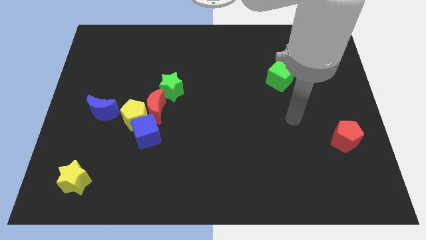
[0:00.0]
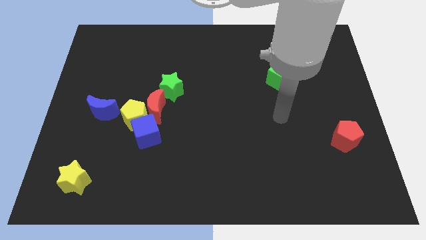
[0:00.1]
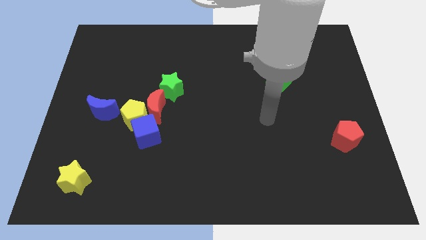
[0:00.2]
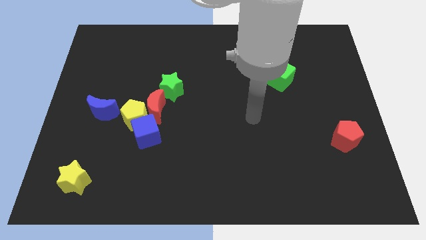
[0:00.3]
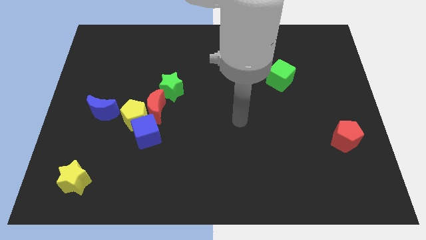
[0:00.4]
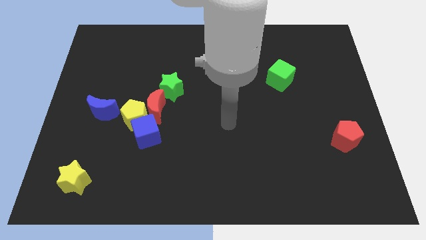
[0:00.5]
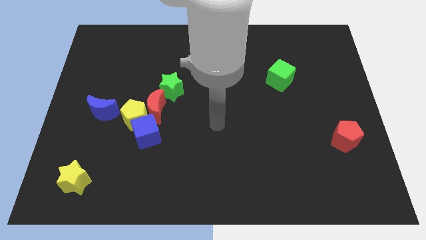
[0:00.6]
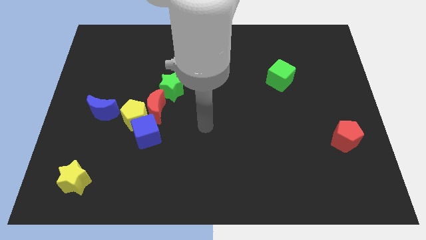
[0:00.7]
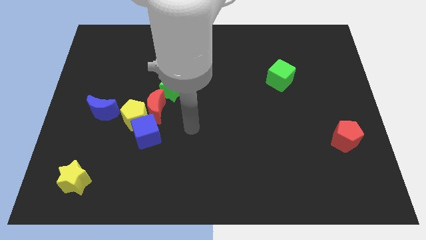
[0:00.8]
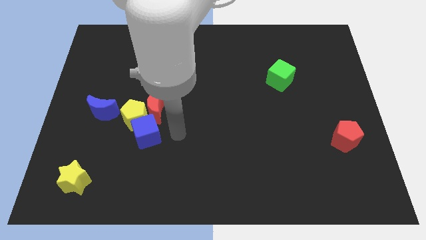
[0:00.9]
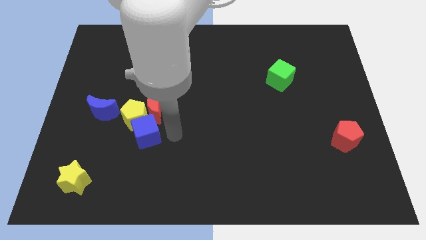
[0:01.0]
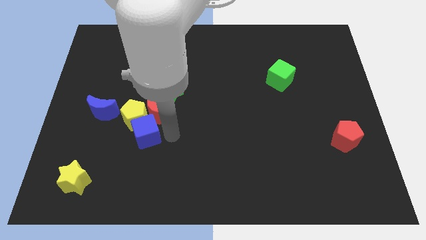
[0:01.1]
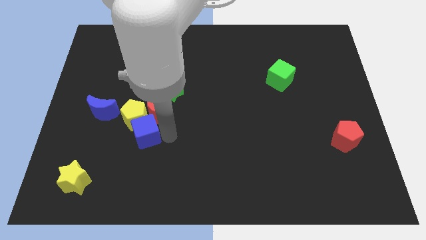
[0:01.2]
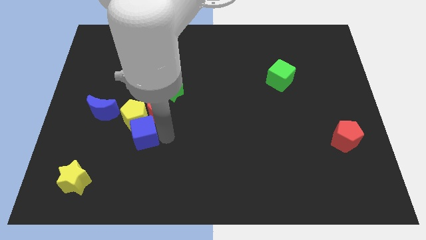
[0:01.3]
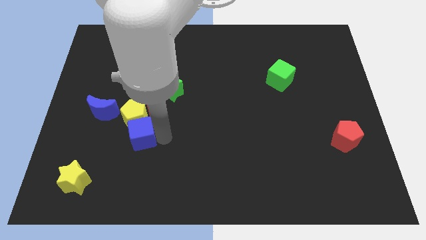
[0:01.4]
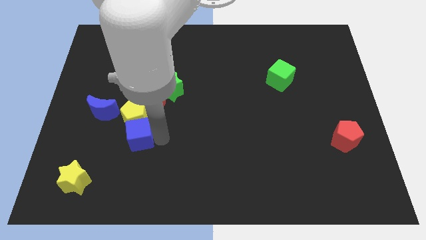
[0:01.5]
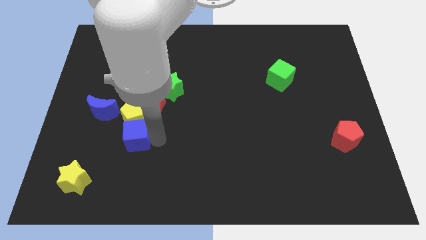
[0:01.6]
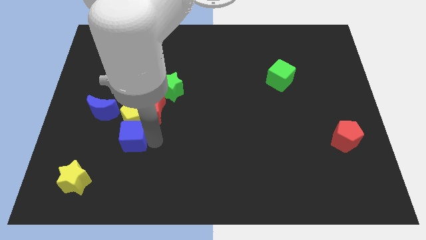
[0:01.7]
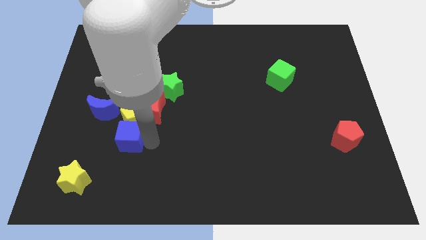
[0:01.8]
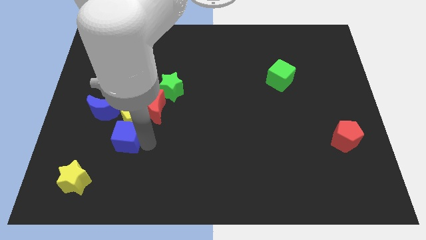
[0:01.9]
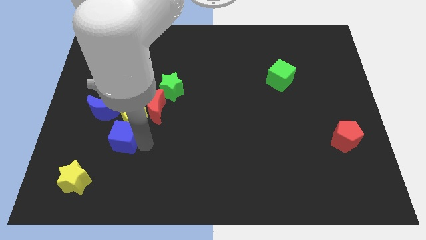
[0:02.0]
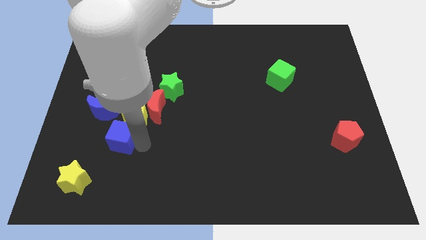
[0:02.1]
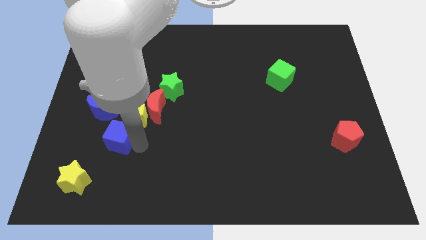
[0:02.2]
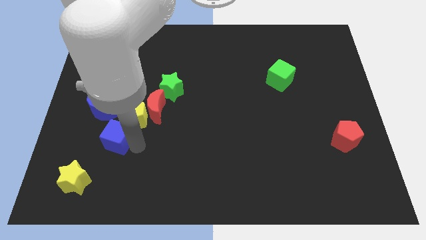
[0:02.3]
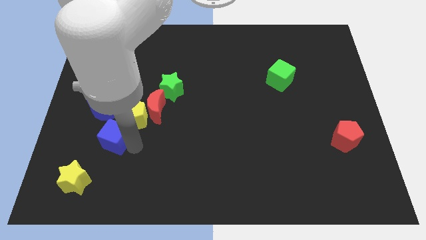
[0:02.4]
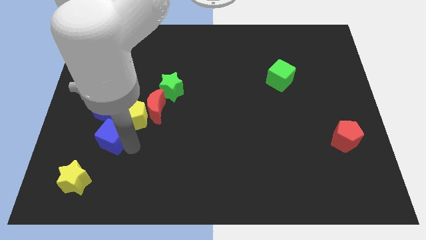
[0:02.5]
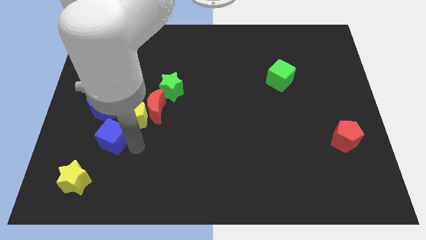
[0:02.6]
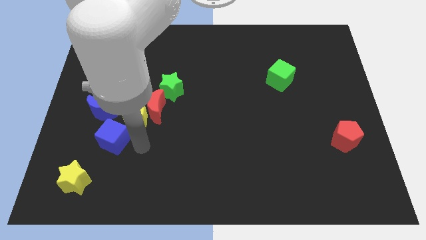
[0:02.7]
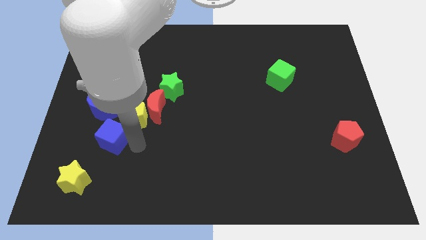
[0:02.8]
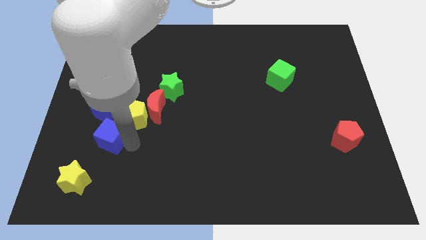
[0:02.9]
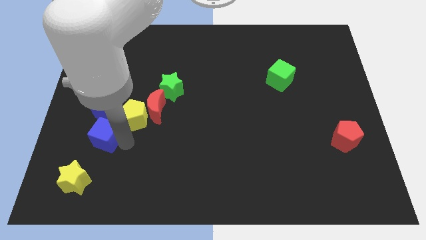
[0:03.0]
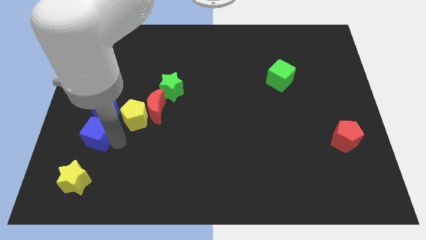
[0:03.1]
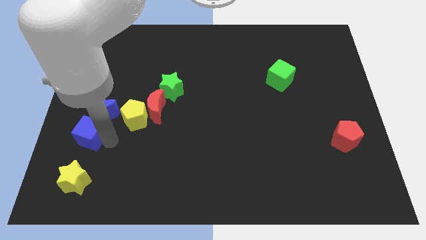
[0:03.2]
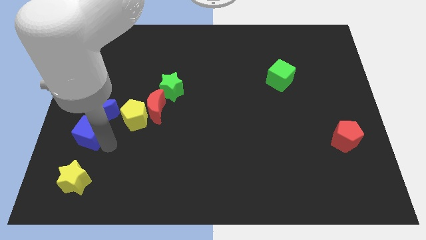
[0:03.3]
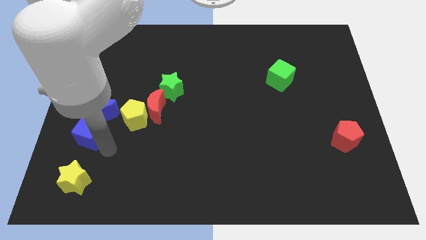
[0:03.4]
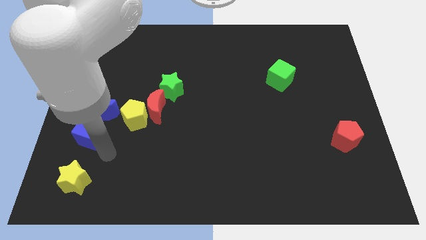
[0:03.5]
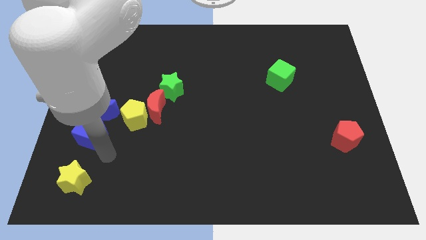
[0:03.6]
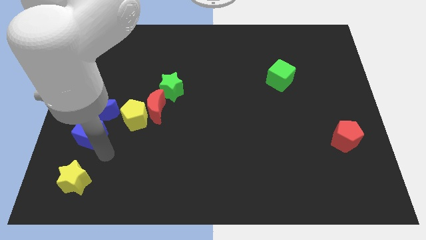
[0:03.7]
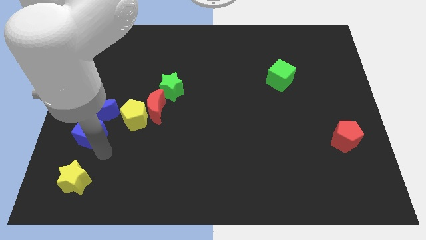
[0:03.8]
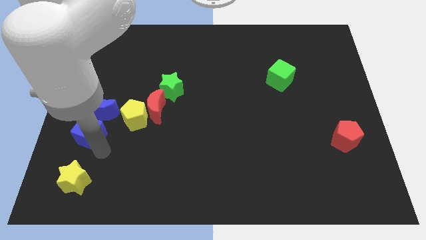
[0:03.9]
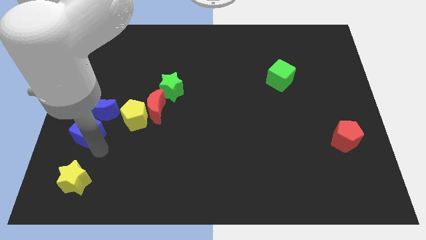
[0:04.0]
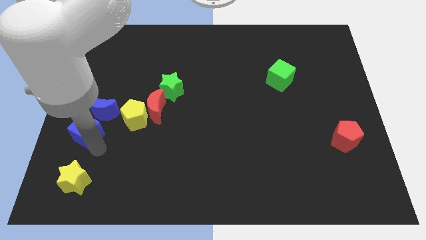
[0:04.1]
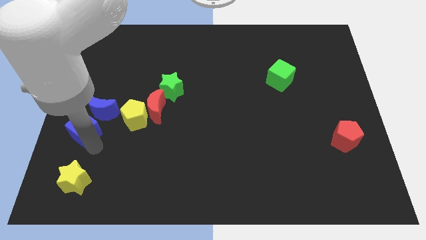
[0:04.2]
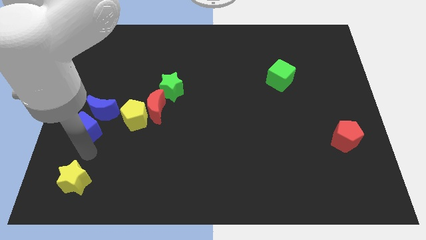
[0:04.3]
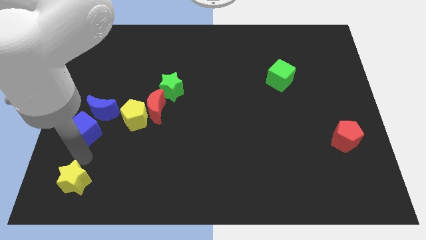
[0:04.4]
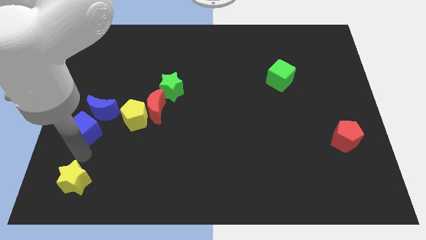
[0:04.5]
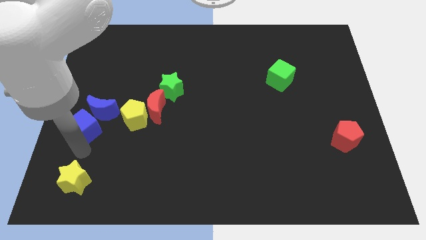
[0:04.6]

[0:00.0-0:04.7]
slide the blue cube a little up and then left

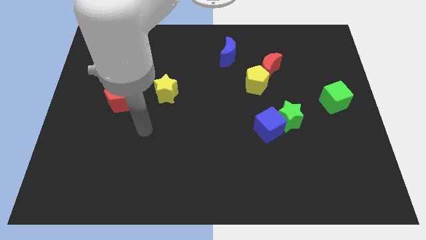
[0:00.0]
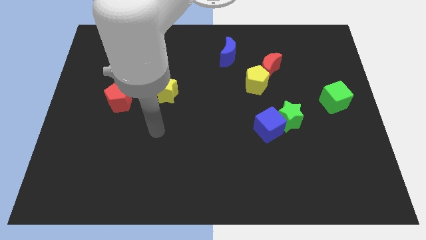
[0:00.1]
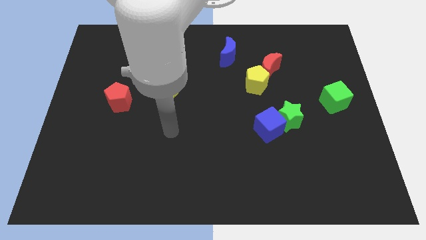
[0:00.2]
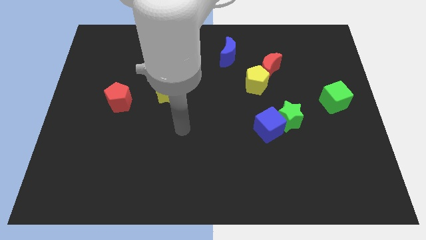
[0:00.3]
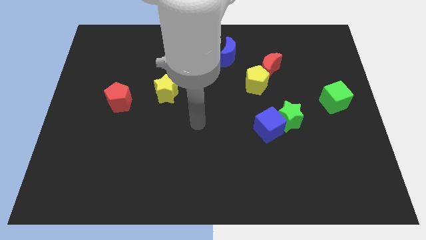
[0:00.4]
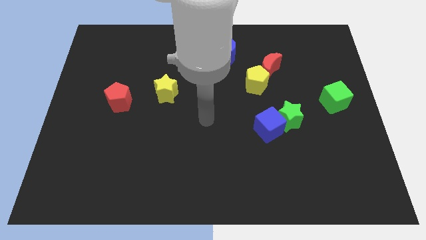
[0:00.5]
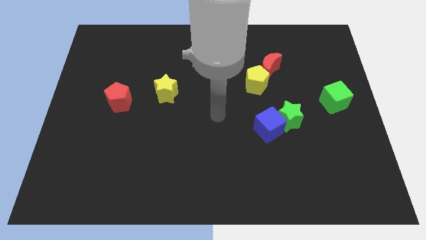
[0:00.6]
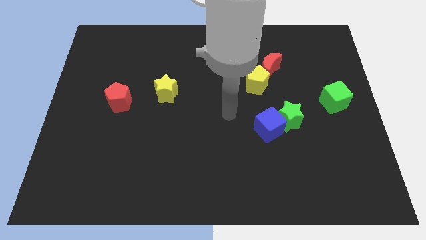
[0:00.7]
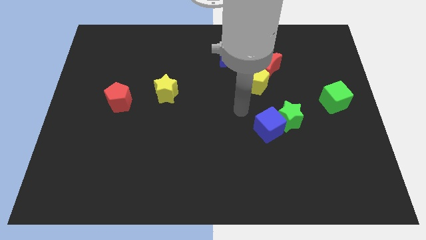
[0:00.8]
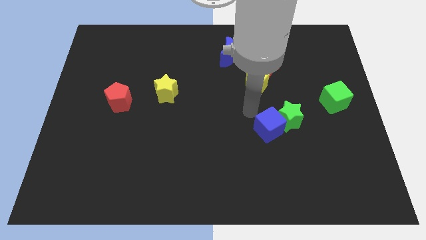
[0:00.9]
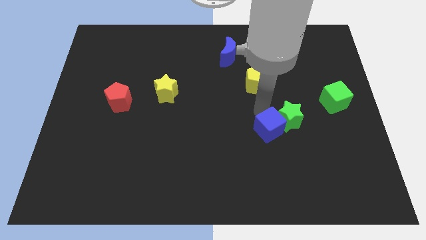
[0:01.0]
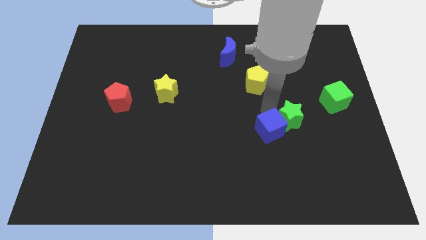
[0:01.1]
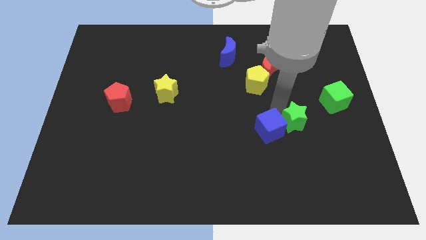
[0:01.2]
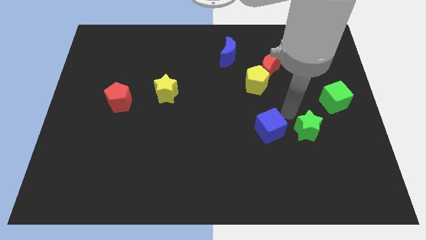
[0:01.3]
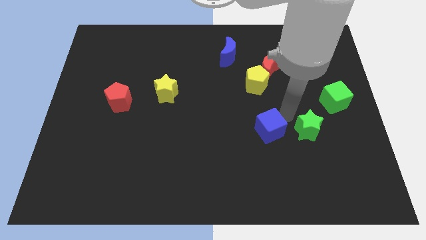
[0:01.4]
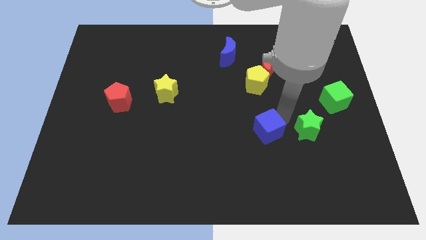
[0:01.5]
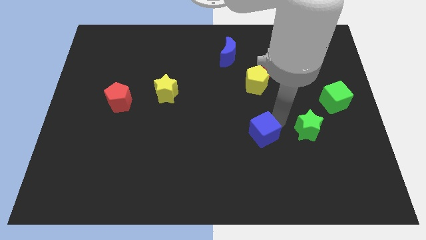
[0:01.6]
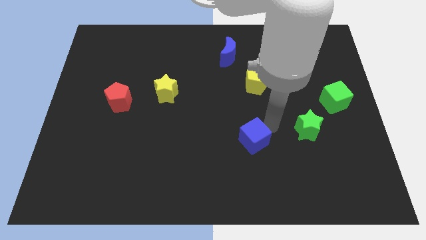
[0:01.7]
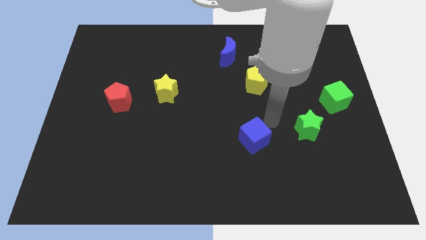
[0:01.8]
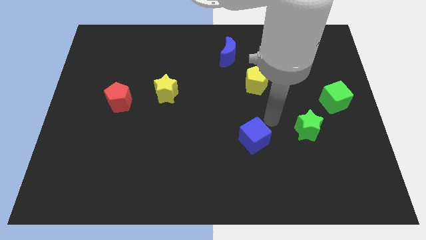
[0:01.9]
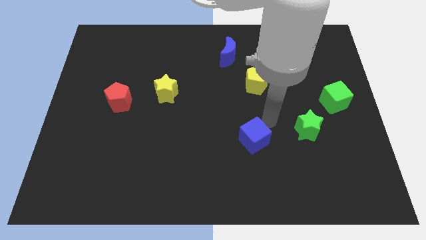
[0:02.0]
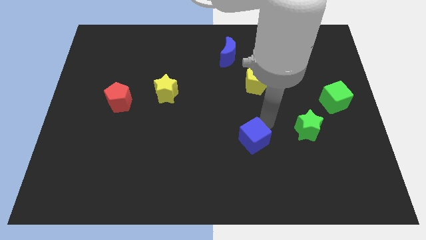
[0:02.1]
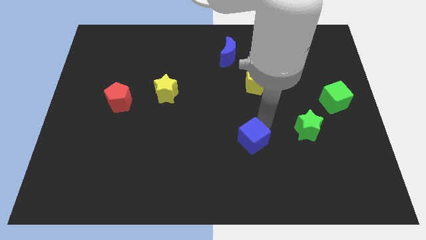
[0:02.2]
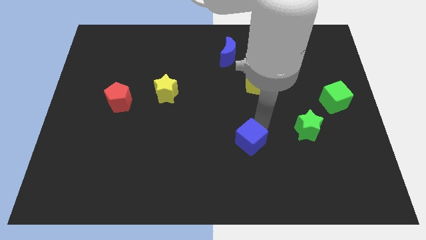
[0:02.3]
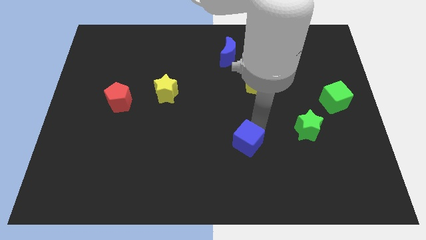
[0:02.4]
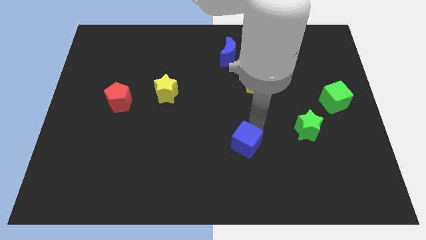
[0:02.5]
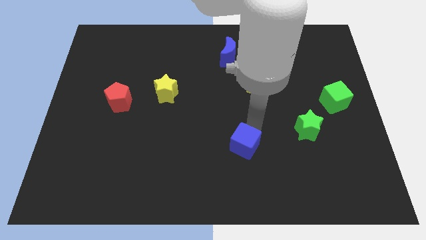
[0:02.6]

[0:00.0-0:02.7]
slightly push the blue cube down and then to the left

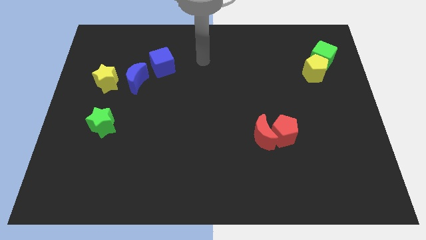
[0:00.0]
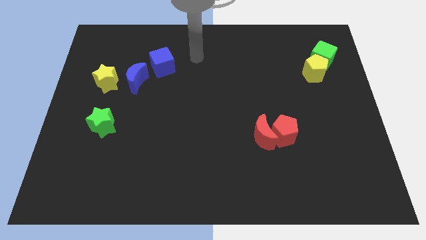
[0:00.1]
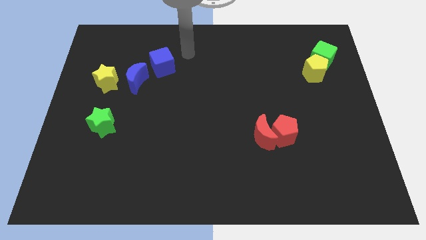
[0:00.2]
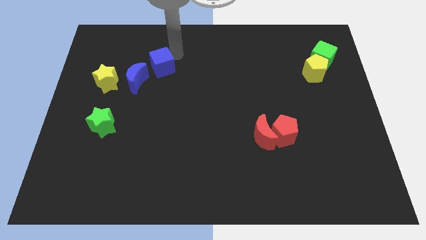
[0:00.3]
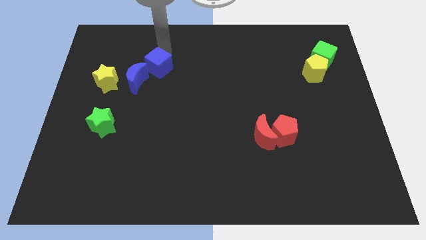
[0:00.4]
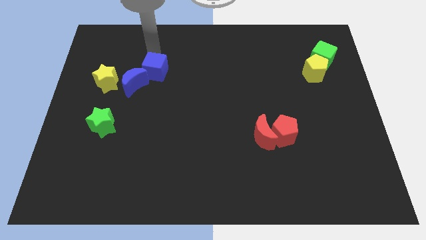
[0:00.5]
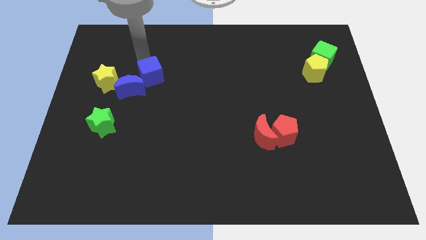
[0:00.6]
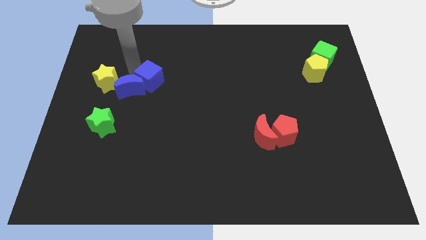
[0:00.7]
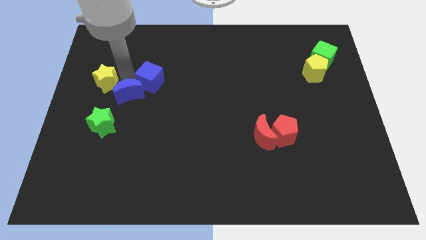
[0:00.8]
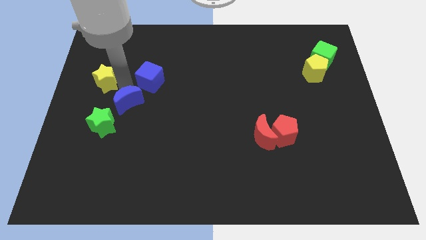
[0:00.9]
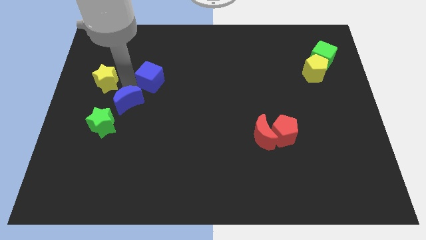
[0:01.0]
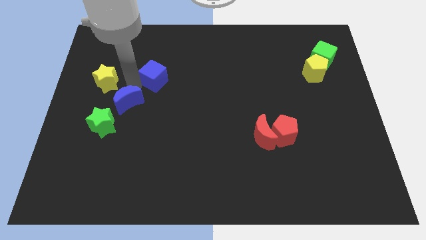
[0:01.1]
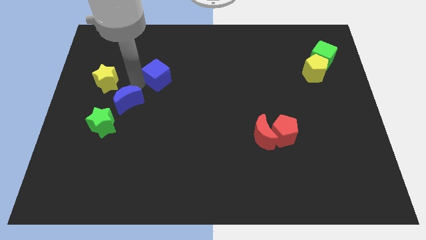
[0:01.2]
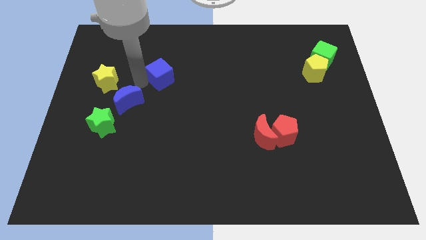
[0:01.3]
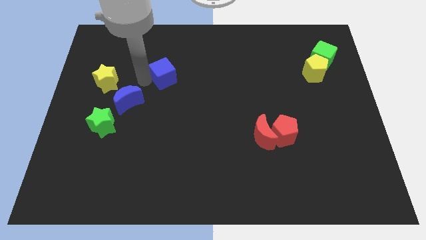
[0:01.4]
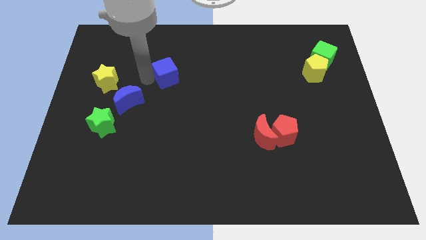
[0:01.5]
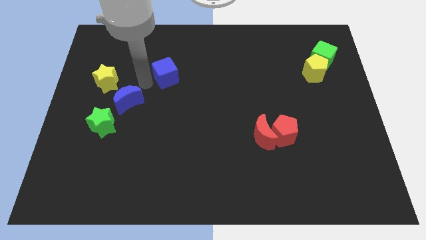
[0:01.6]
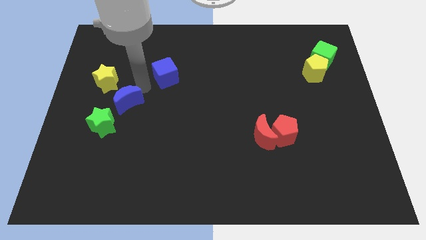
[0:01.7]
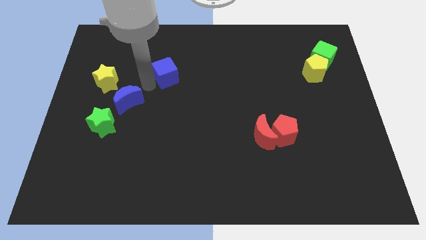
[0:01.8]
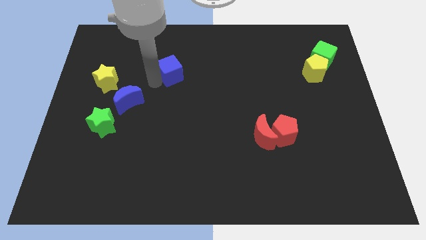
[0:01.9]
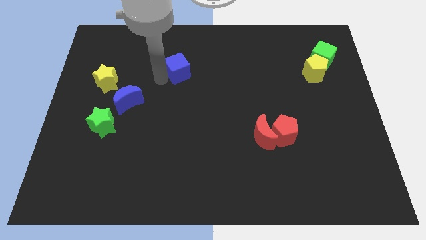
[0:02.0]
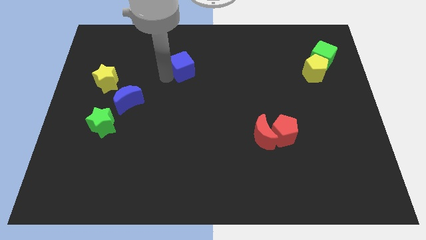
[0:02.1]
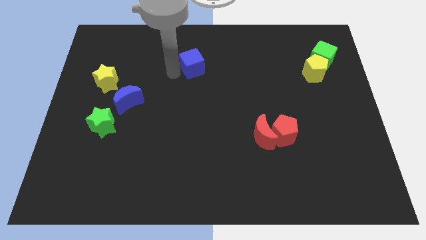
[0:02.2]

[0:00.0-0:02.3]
slightly move the blue cube right
